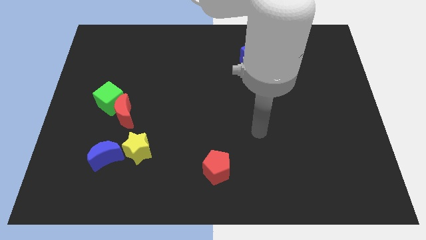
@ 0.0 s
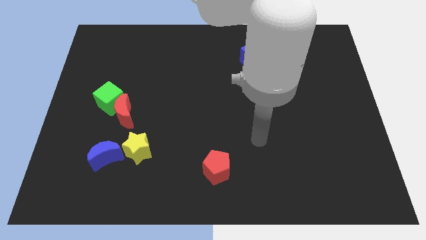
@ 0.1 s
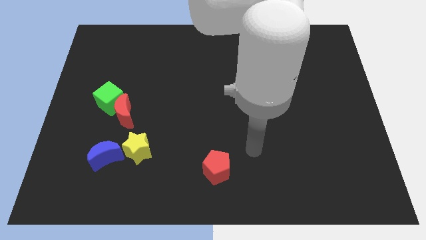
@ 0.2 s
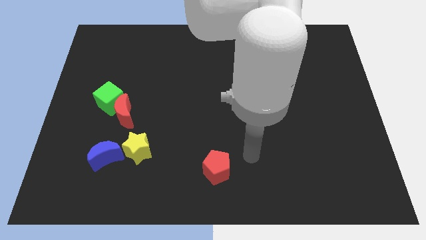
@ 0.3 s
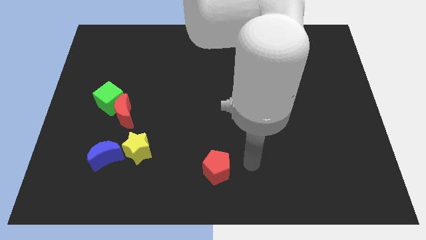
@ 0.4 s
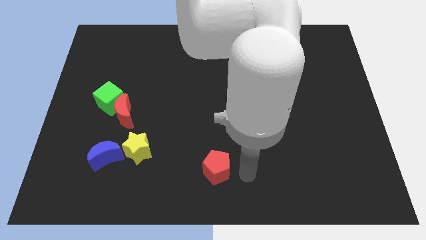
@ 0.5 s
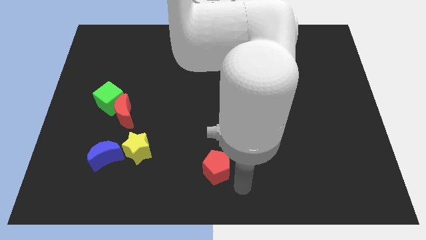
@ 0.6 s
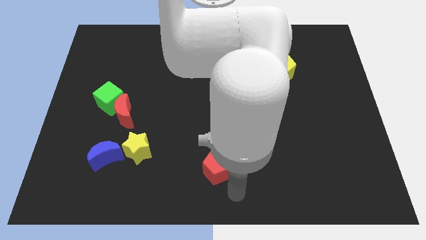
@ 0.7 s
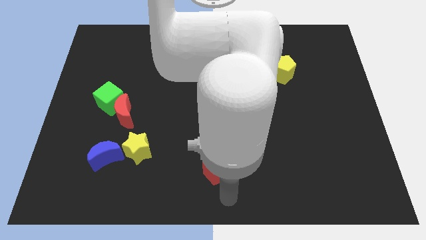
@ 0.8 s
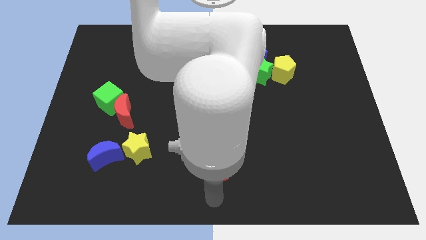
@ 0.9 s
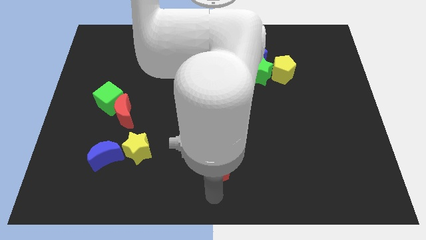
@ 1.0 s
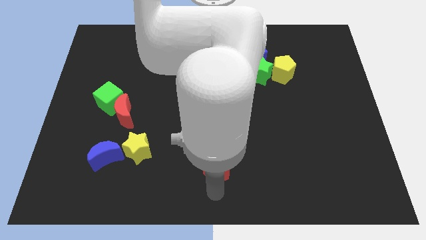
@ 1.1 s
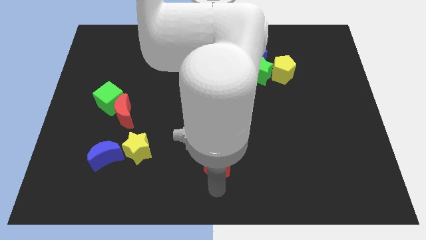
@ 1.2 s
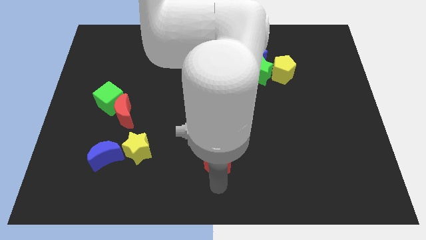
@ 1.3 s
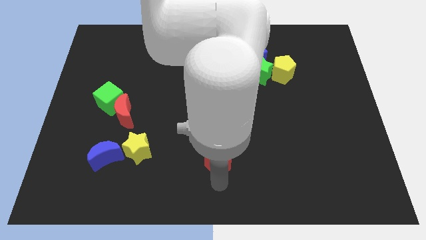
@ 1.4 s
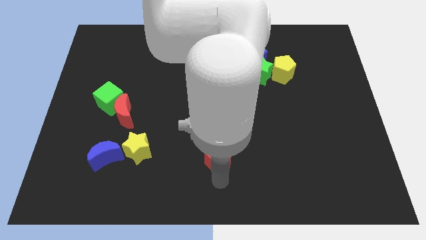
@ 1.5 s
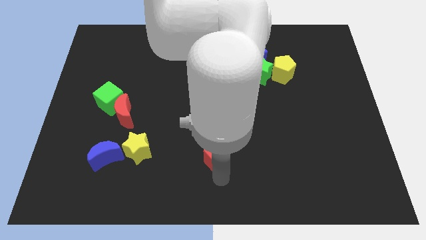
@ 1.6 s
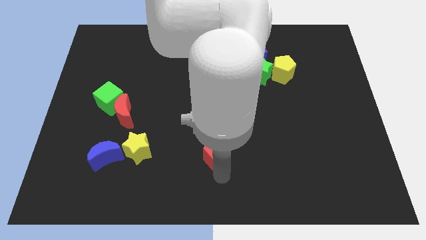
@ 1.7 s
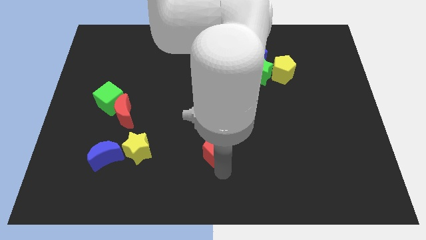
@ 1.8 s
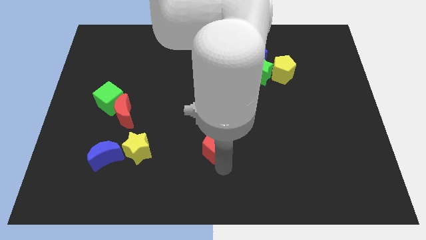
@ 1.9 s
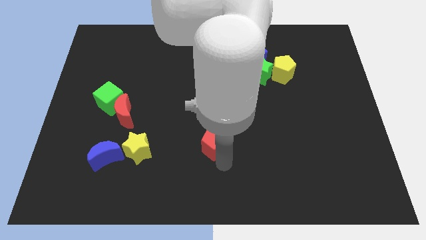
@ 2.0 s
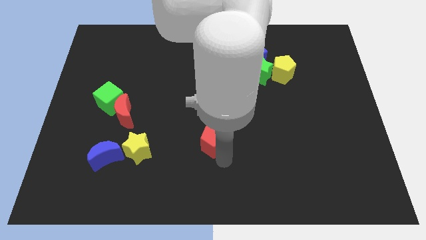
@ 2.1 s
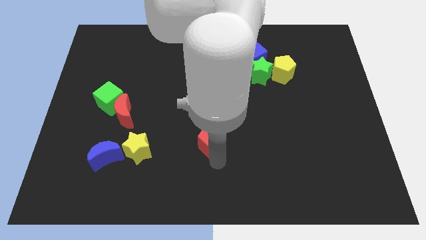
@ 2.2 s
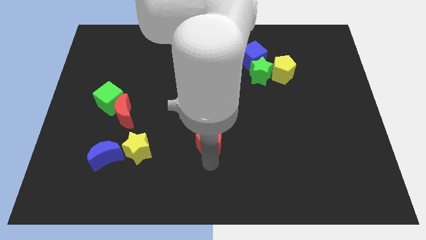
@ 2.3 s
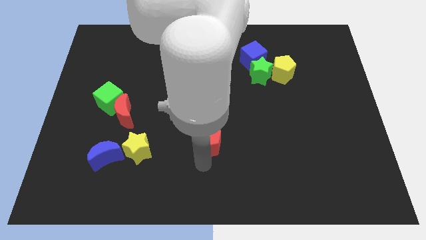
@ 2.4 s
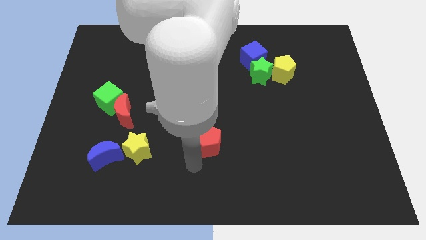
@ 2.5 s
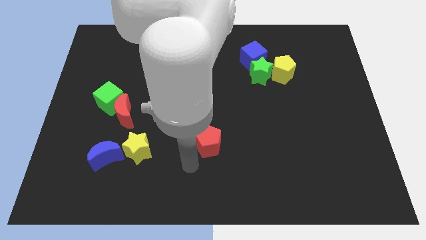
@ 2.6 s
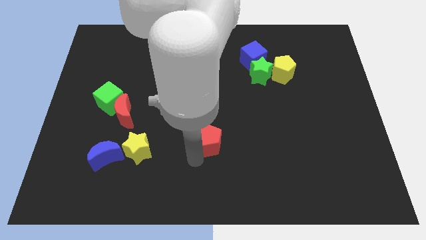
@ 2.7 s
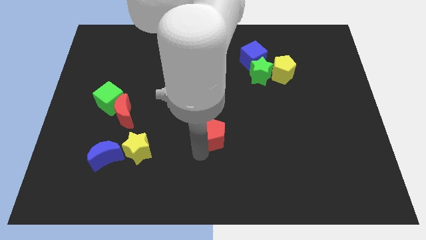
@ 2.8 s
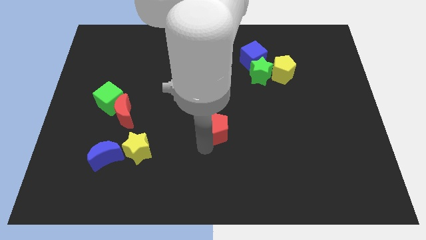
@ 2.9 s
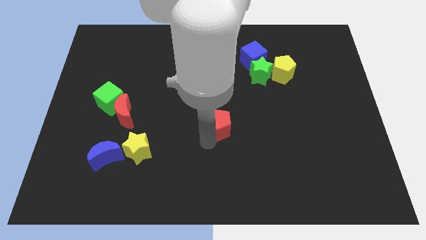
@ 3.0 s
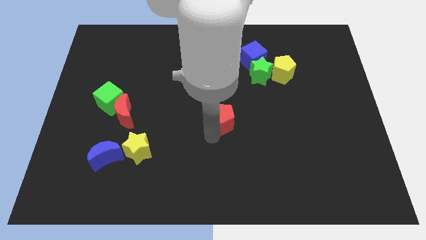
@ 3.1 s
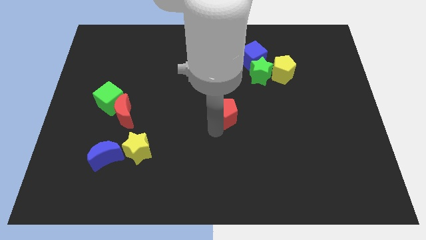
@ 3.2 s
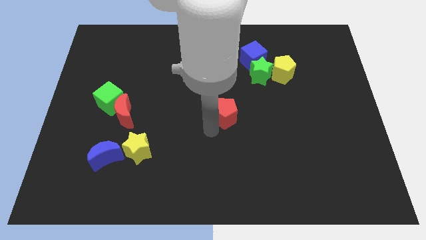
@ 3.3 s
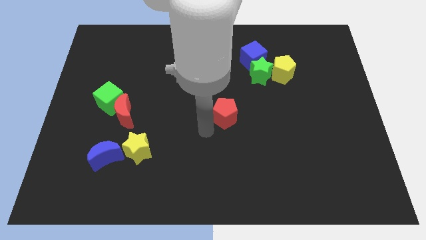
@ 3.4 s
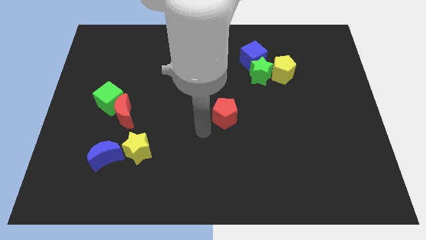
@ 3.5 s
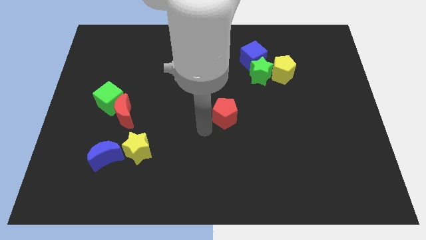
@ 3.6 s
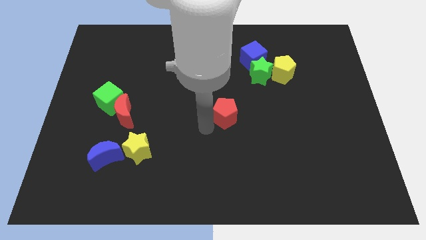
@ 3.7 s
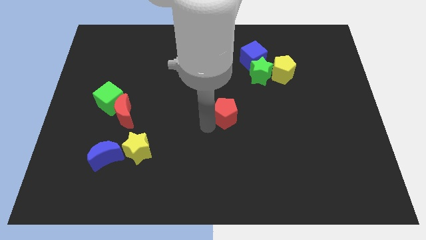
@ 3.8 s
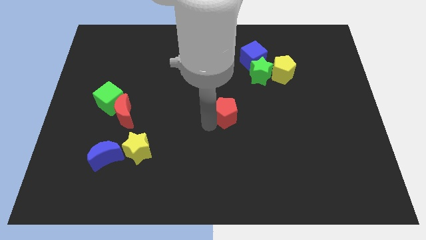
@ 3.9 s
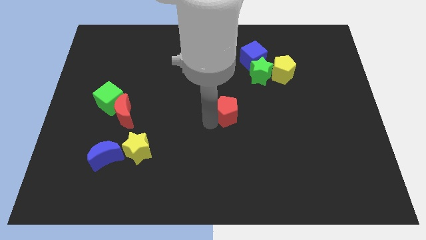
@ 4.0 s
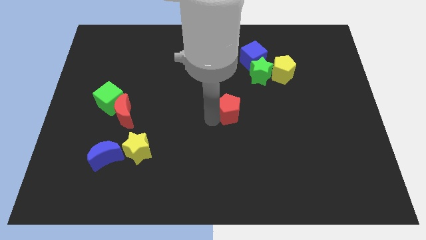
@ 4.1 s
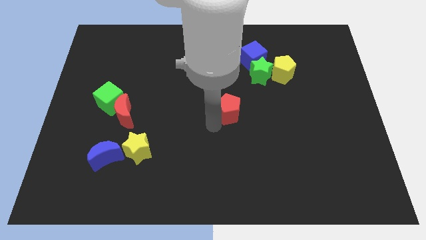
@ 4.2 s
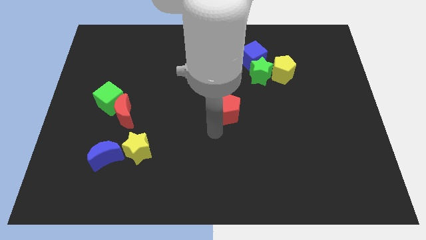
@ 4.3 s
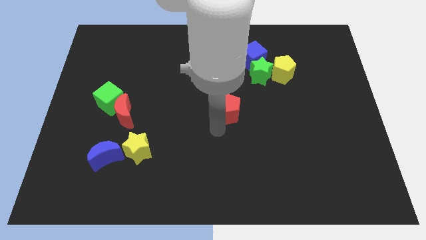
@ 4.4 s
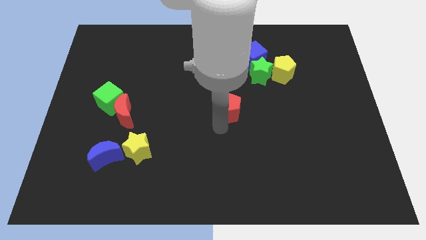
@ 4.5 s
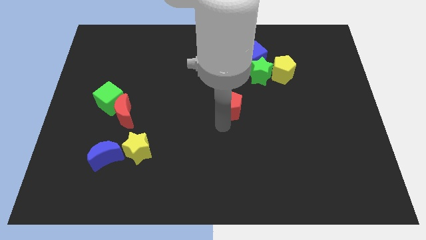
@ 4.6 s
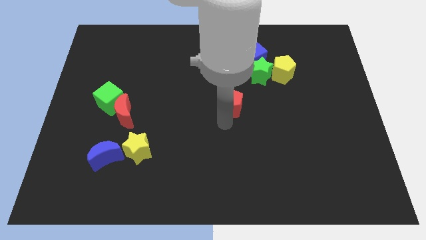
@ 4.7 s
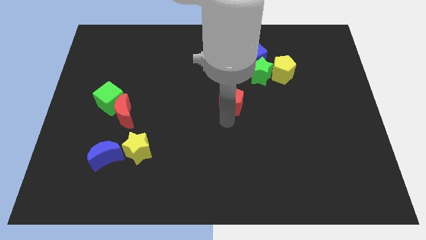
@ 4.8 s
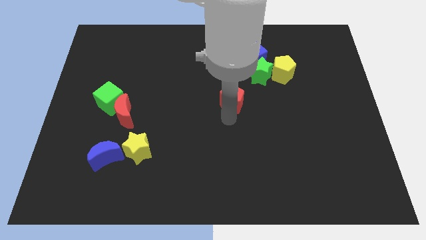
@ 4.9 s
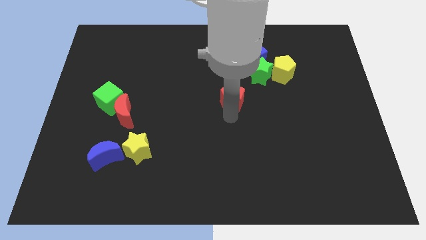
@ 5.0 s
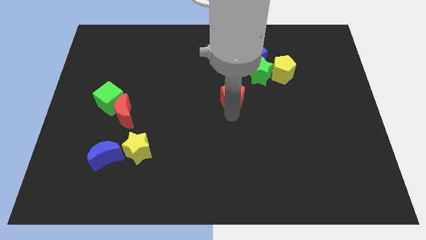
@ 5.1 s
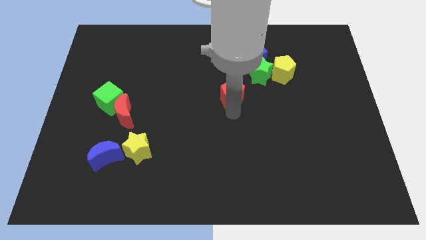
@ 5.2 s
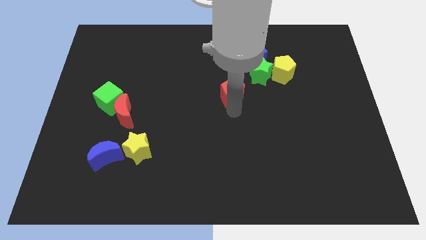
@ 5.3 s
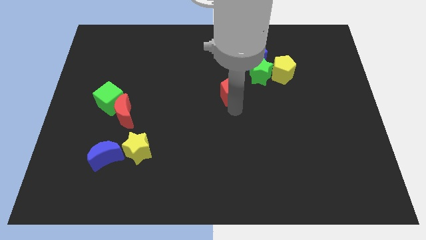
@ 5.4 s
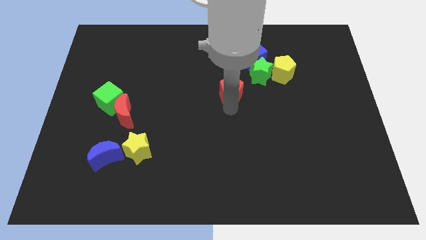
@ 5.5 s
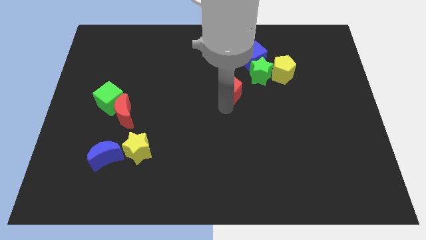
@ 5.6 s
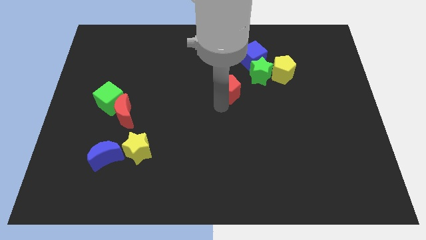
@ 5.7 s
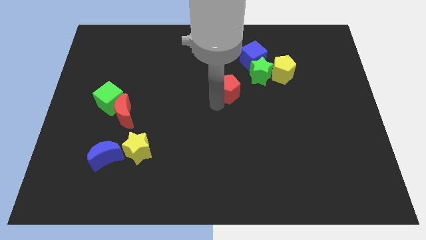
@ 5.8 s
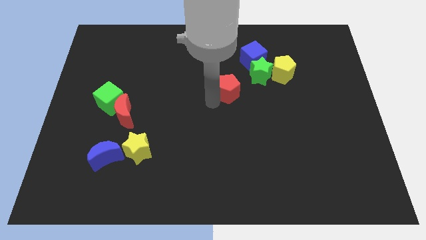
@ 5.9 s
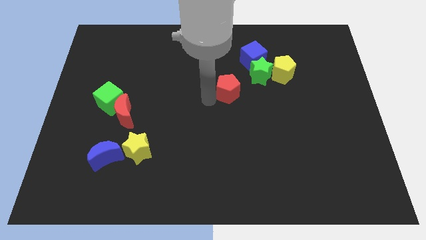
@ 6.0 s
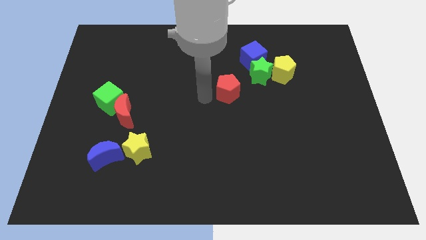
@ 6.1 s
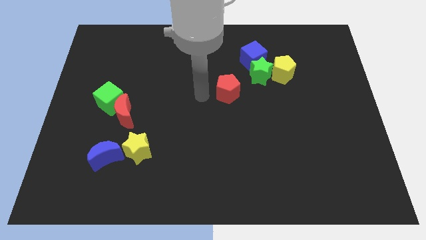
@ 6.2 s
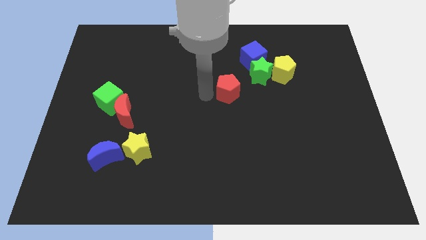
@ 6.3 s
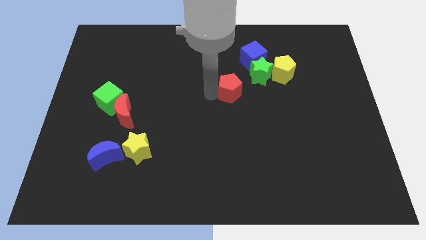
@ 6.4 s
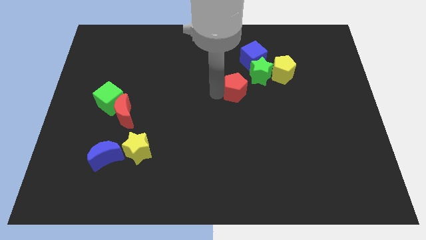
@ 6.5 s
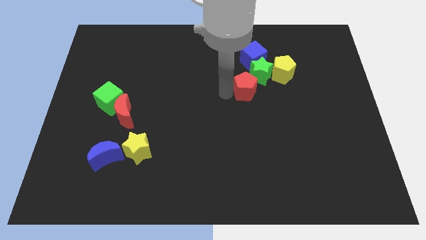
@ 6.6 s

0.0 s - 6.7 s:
move the red pentagon to the green star

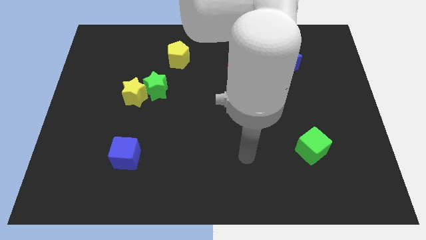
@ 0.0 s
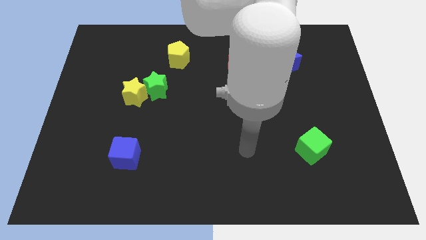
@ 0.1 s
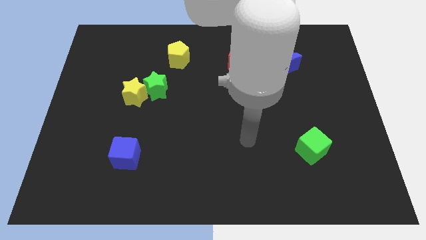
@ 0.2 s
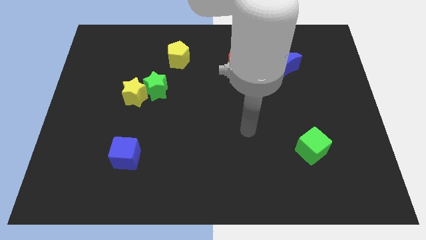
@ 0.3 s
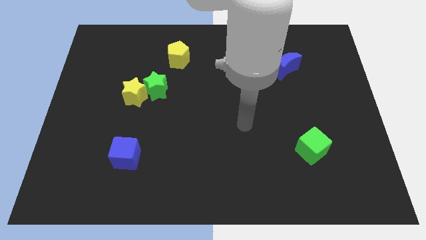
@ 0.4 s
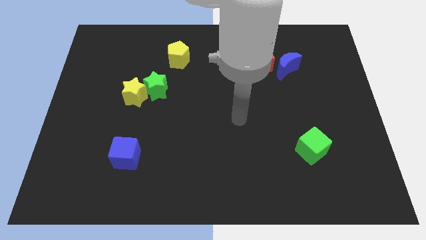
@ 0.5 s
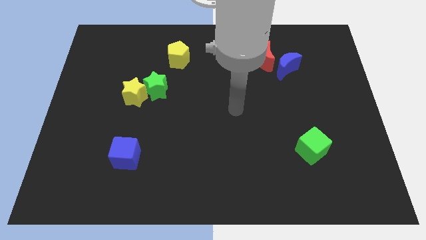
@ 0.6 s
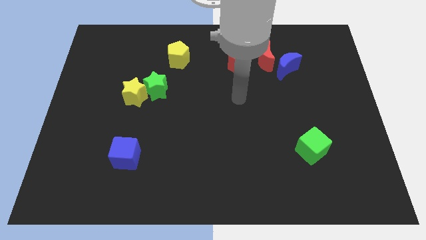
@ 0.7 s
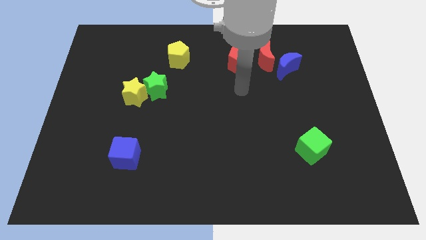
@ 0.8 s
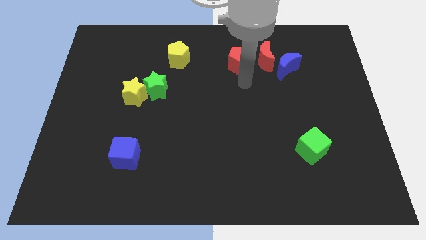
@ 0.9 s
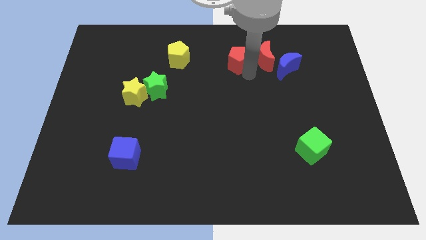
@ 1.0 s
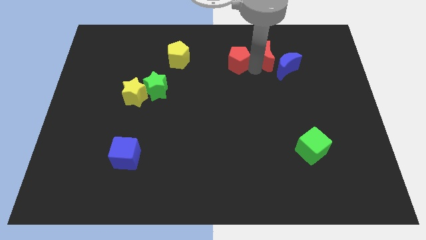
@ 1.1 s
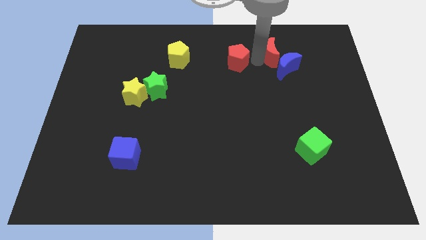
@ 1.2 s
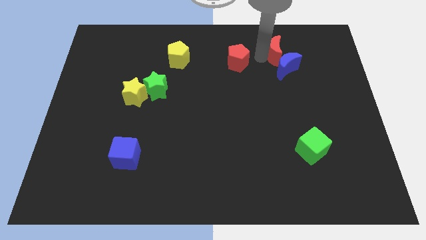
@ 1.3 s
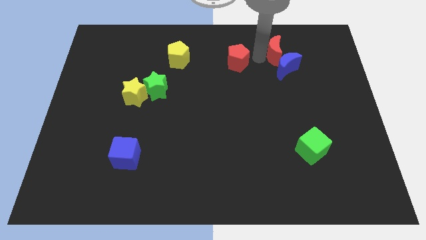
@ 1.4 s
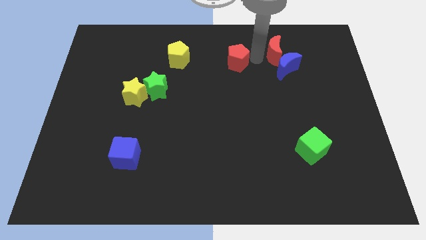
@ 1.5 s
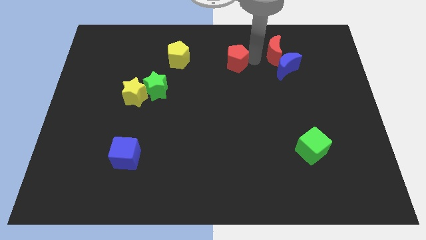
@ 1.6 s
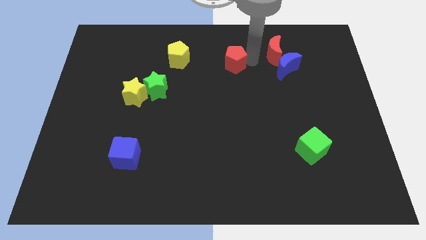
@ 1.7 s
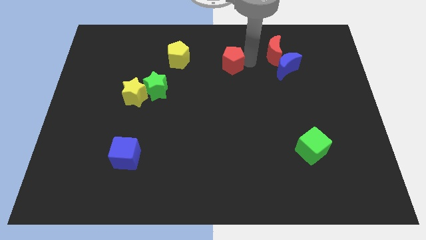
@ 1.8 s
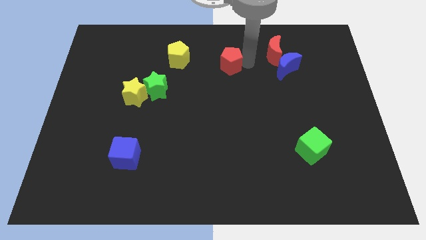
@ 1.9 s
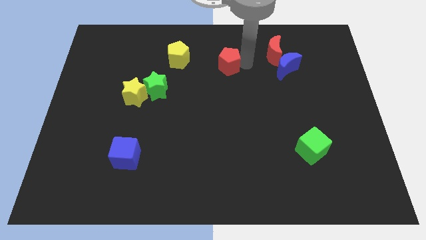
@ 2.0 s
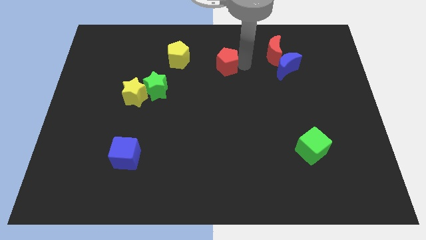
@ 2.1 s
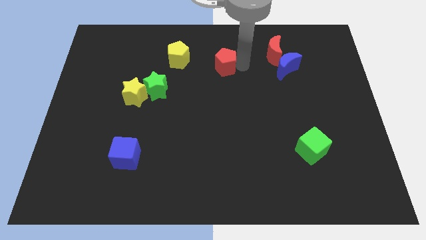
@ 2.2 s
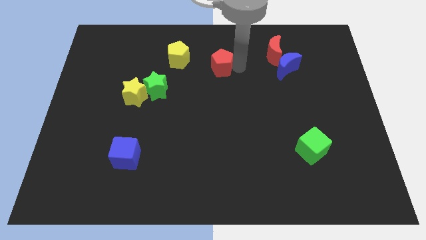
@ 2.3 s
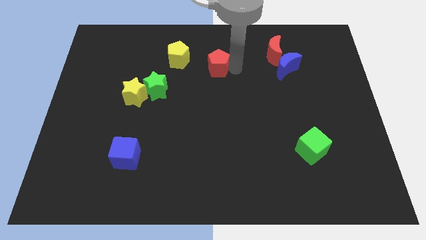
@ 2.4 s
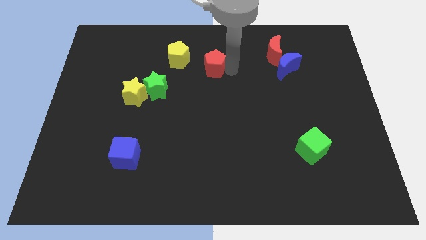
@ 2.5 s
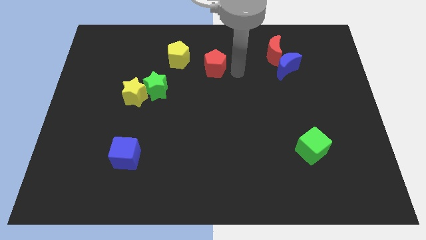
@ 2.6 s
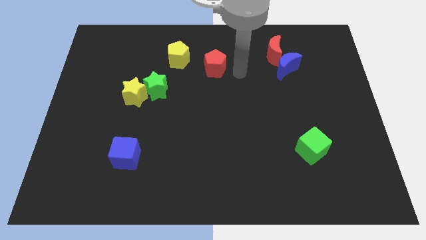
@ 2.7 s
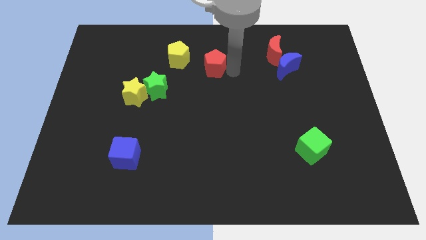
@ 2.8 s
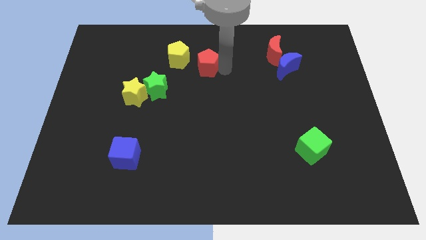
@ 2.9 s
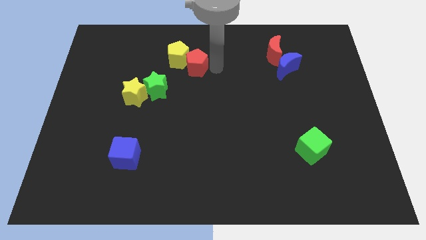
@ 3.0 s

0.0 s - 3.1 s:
put the red pentagon to the yellow pentagon
